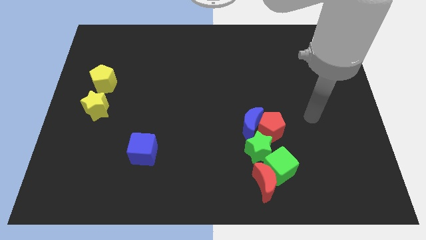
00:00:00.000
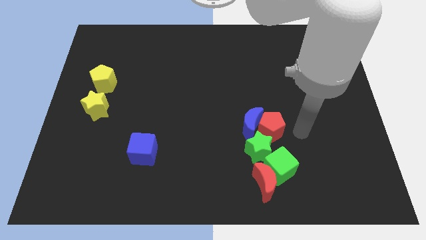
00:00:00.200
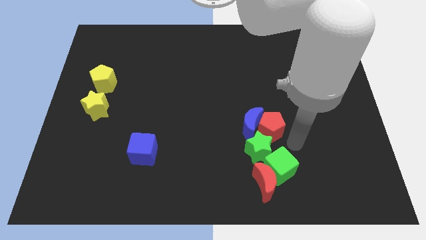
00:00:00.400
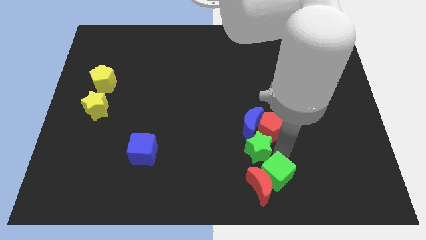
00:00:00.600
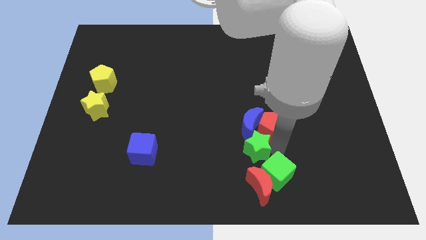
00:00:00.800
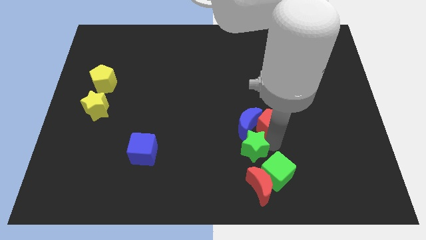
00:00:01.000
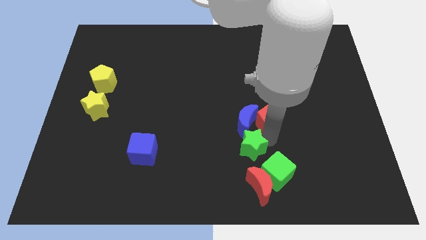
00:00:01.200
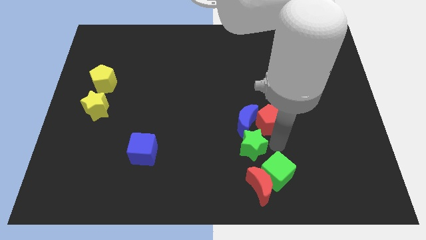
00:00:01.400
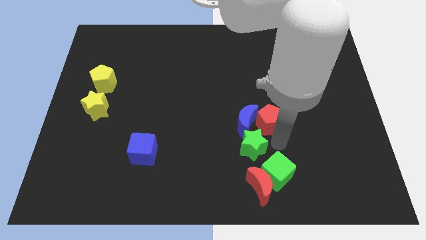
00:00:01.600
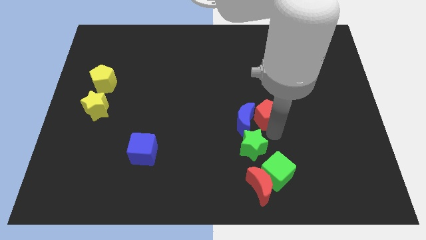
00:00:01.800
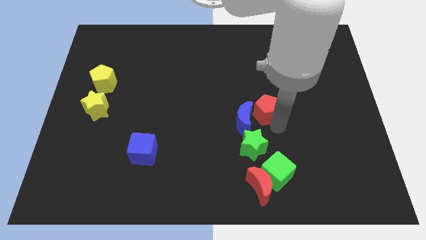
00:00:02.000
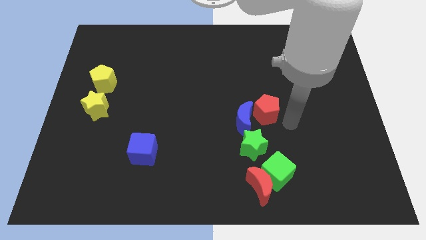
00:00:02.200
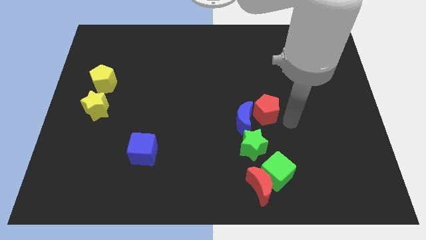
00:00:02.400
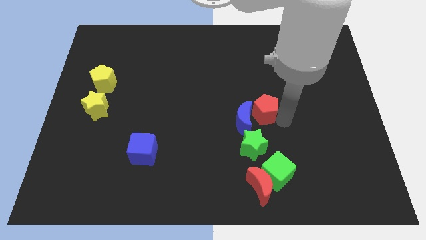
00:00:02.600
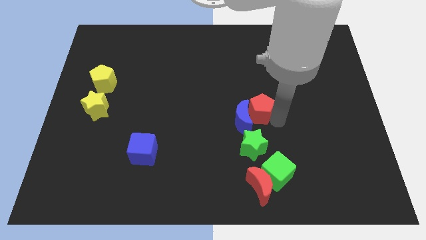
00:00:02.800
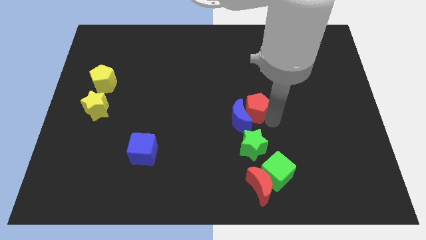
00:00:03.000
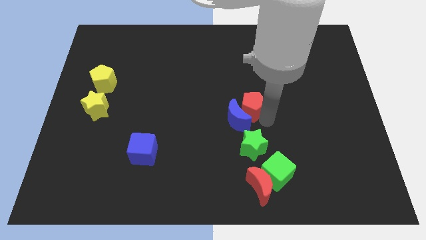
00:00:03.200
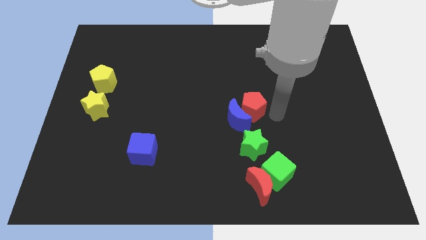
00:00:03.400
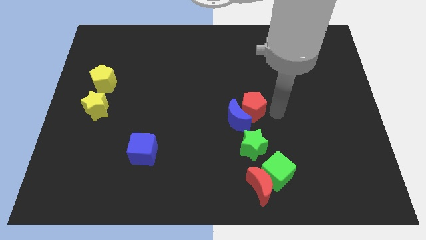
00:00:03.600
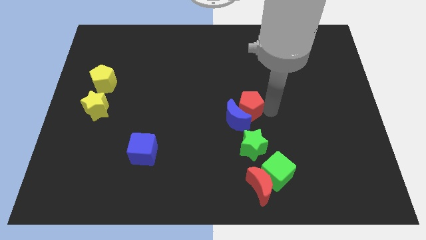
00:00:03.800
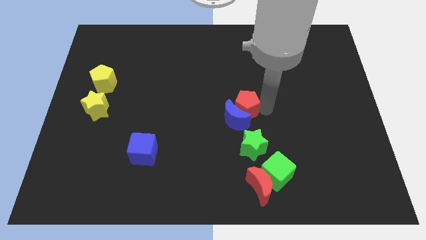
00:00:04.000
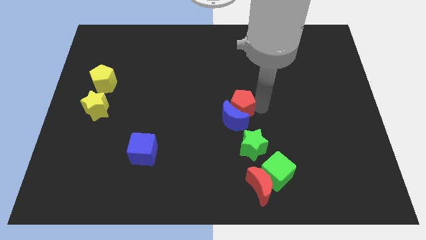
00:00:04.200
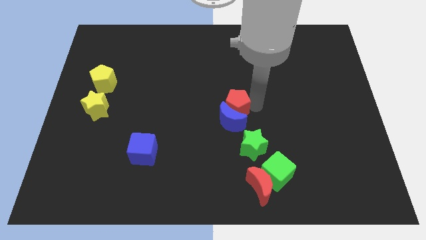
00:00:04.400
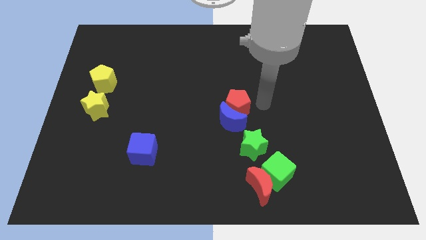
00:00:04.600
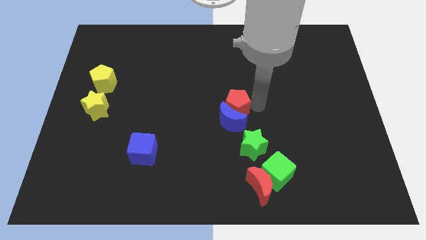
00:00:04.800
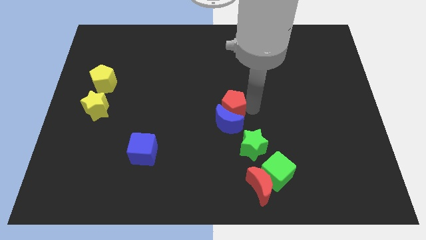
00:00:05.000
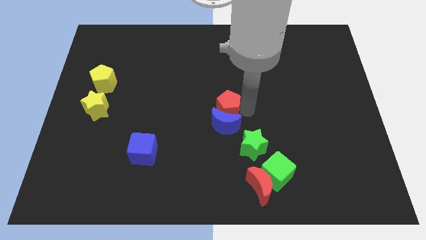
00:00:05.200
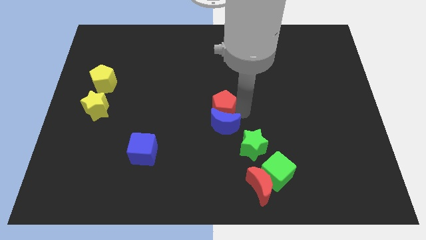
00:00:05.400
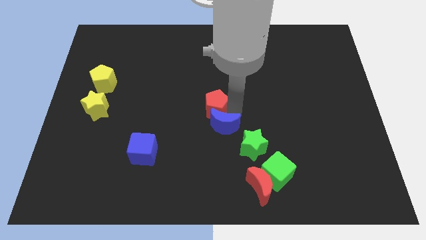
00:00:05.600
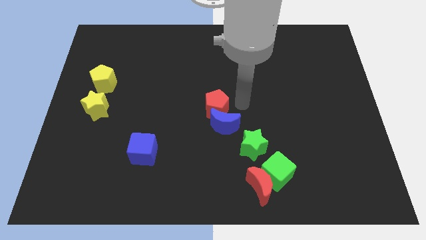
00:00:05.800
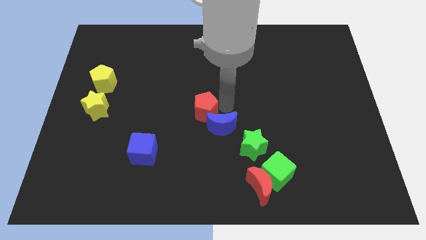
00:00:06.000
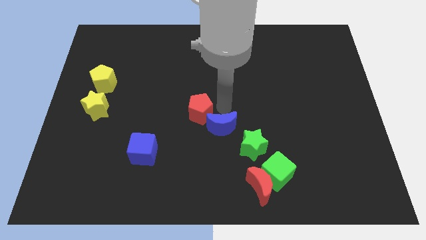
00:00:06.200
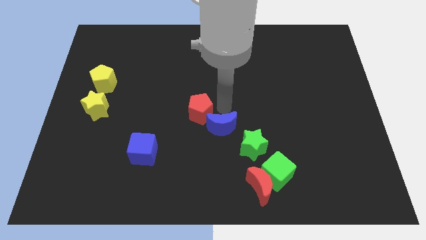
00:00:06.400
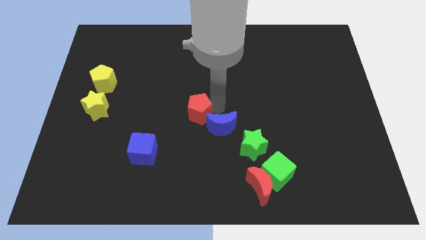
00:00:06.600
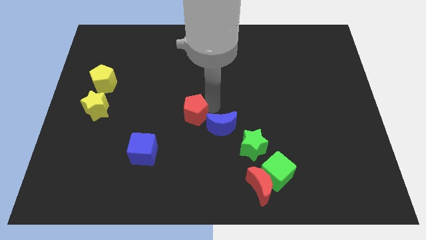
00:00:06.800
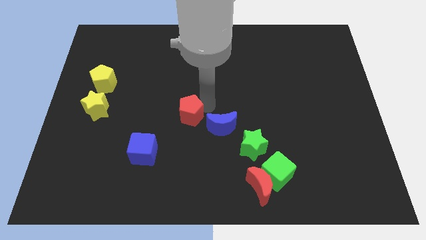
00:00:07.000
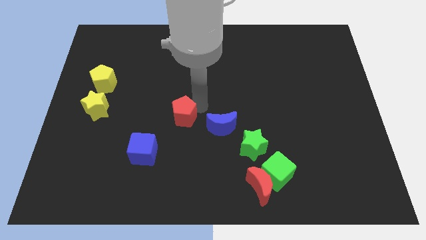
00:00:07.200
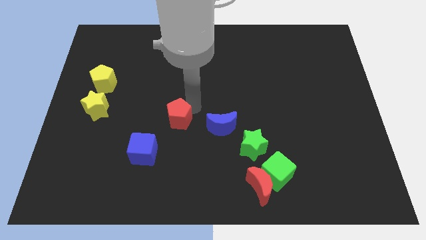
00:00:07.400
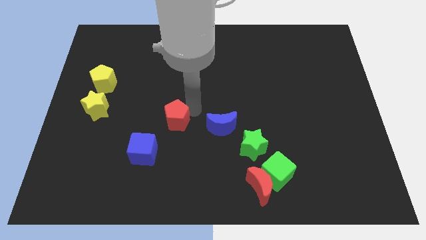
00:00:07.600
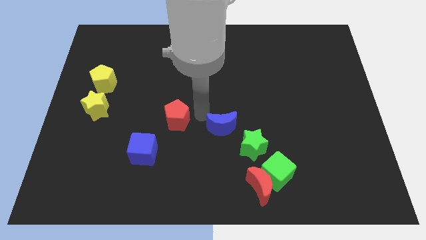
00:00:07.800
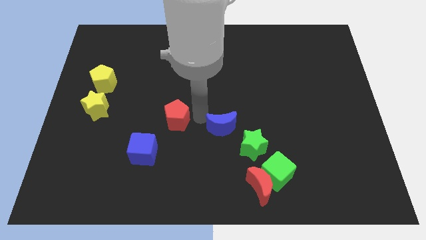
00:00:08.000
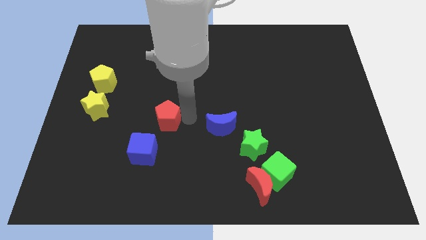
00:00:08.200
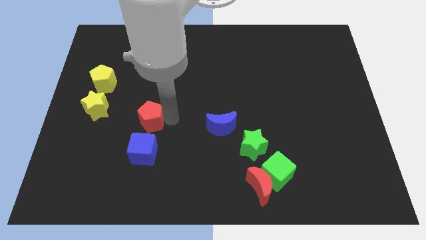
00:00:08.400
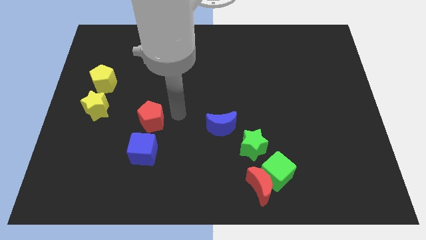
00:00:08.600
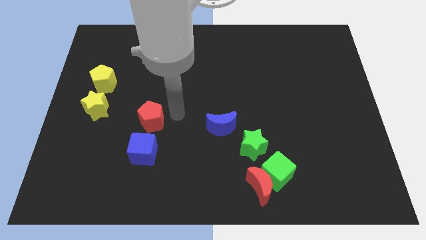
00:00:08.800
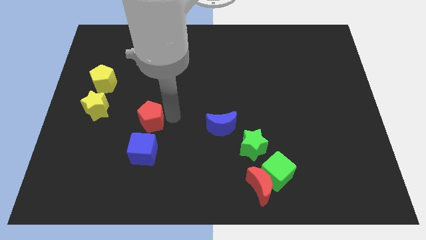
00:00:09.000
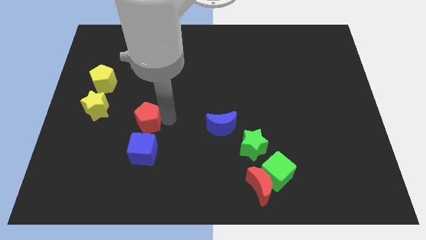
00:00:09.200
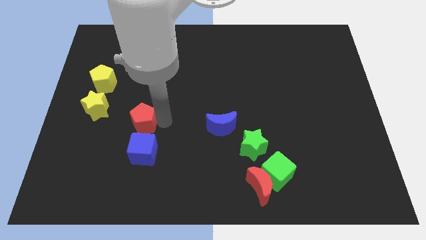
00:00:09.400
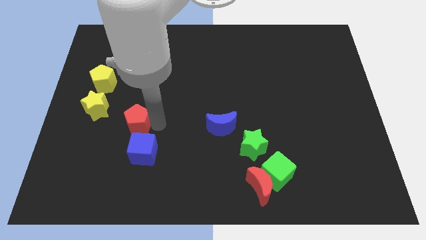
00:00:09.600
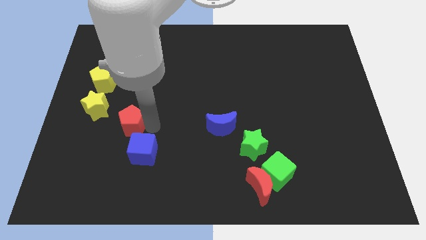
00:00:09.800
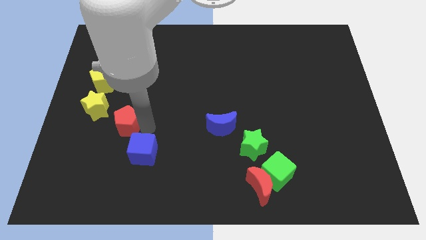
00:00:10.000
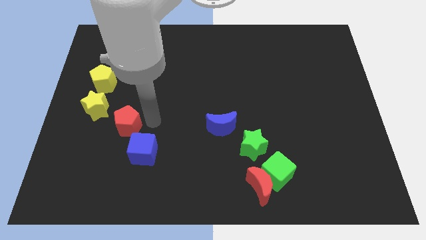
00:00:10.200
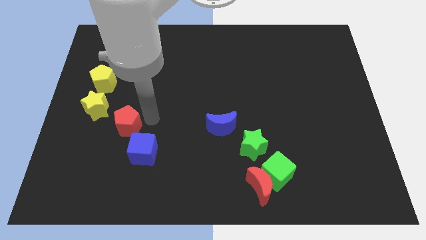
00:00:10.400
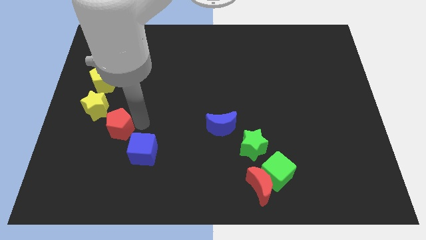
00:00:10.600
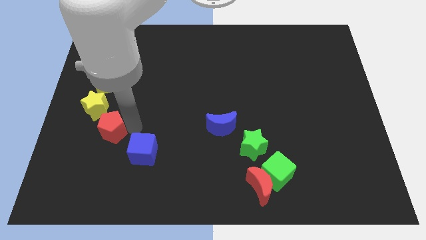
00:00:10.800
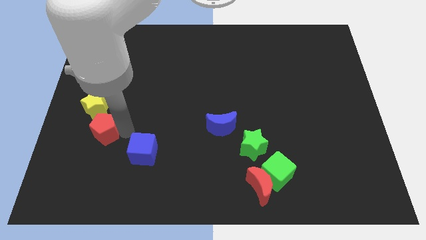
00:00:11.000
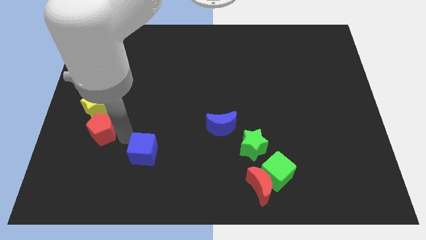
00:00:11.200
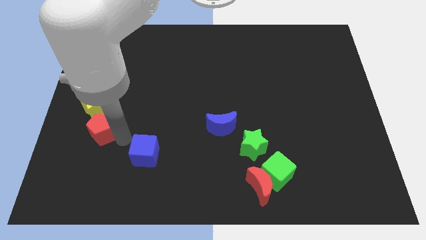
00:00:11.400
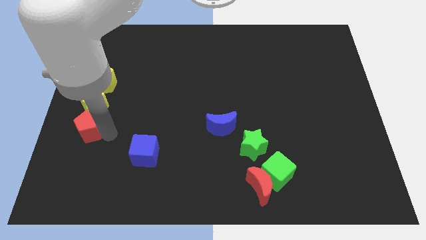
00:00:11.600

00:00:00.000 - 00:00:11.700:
move the red pentagon to the left side of the board
